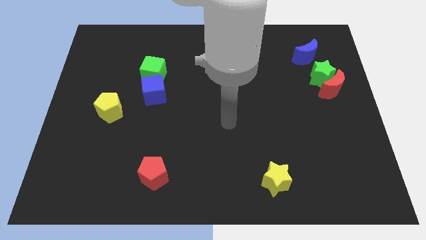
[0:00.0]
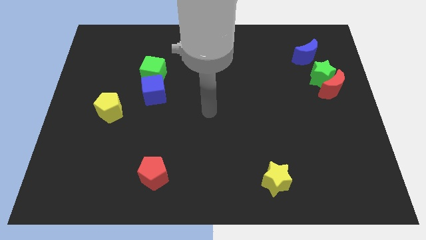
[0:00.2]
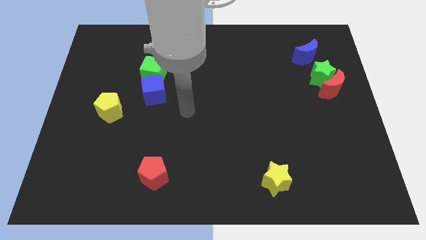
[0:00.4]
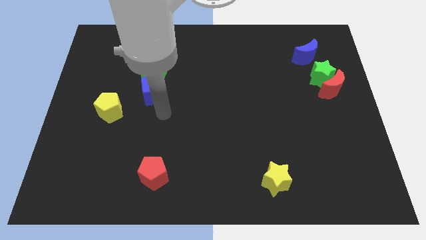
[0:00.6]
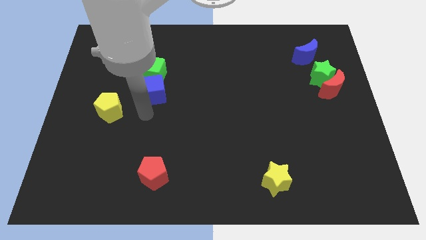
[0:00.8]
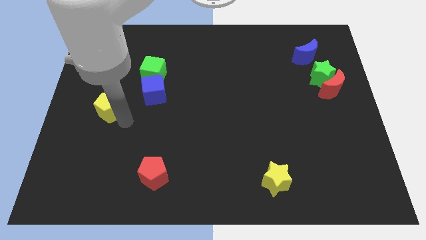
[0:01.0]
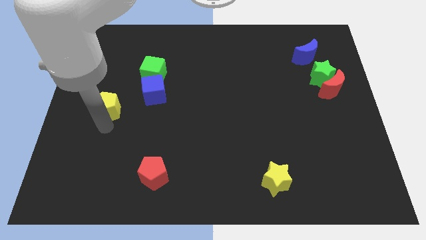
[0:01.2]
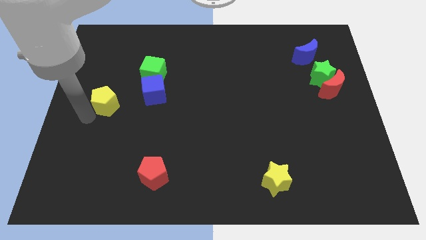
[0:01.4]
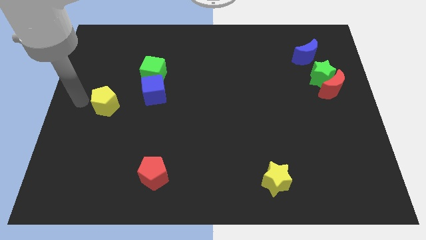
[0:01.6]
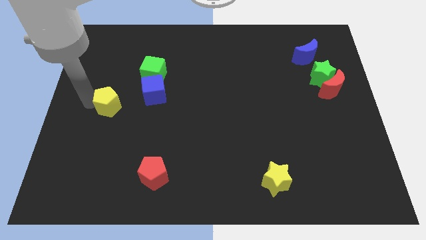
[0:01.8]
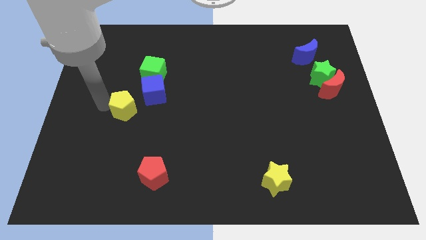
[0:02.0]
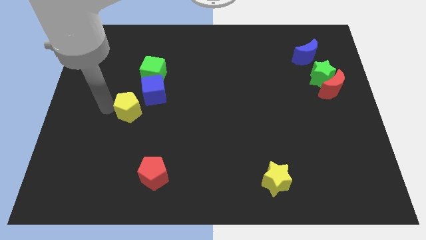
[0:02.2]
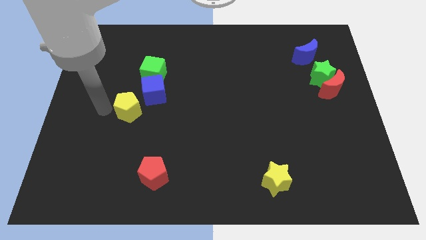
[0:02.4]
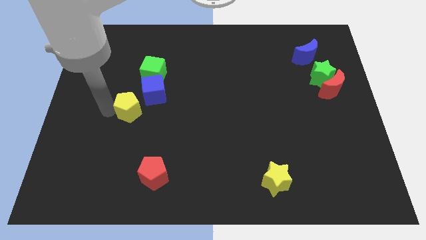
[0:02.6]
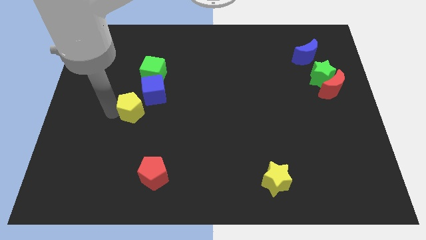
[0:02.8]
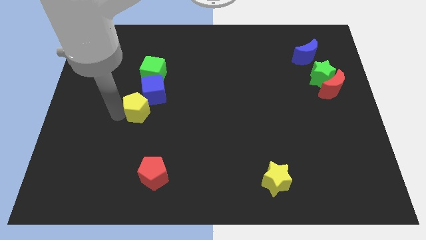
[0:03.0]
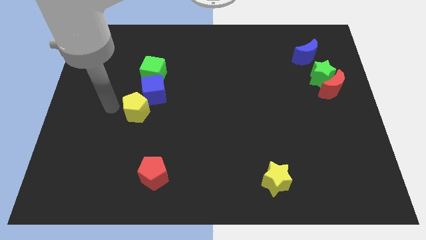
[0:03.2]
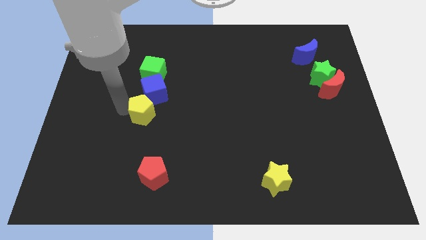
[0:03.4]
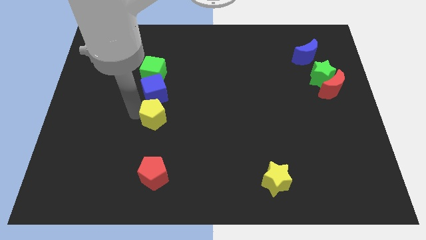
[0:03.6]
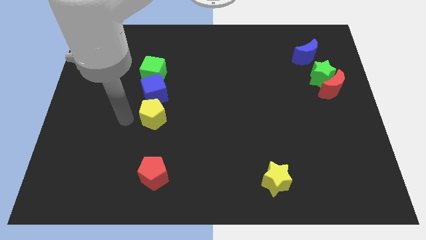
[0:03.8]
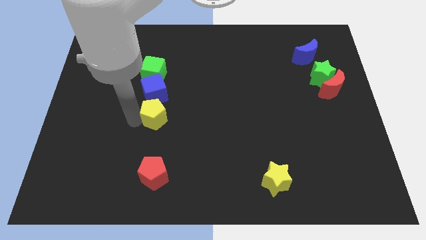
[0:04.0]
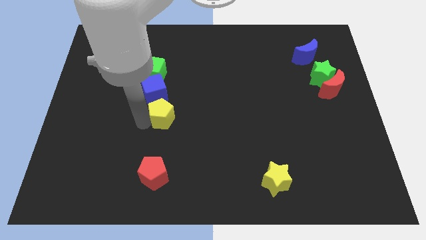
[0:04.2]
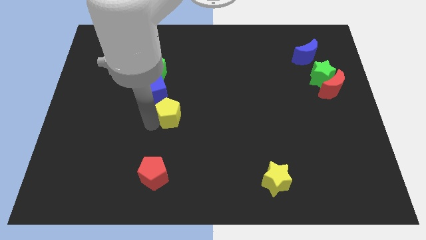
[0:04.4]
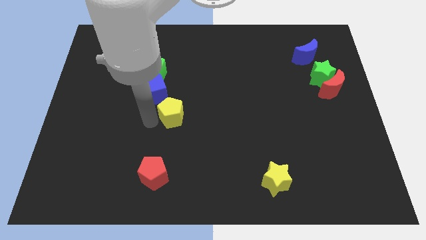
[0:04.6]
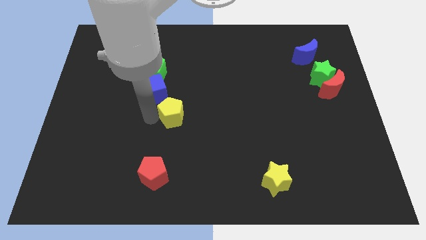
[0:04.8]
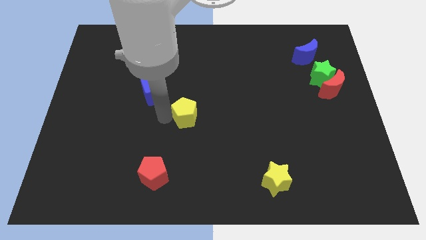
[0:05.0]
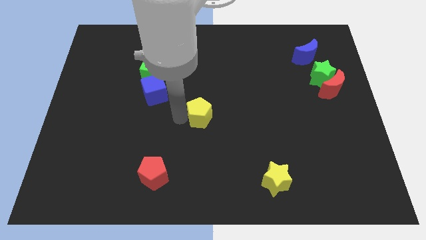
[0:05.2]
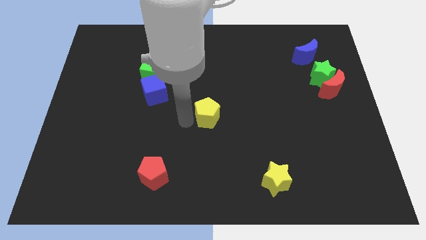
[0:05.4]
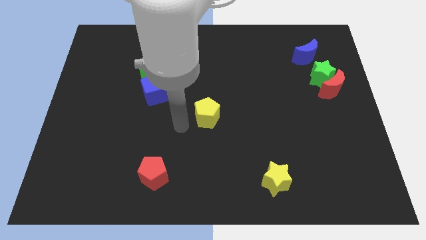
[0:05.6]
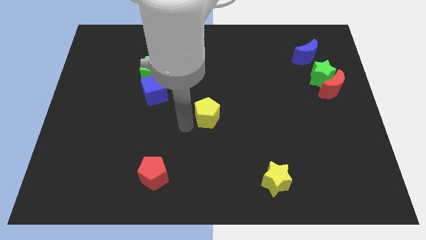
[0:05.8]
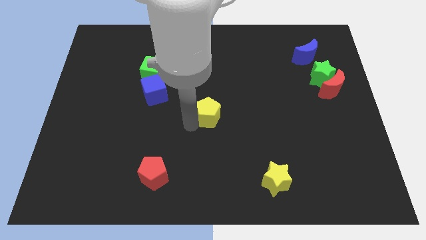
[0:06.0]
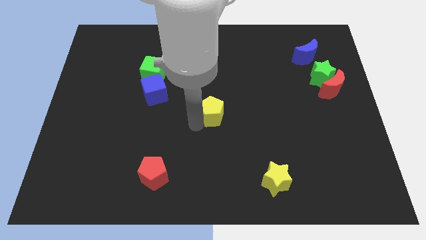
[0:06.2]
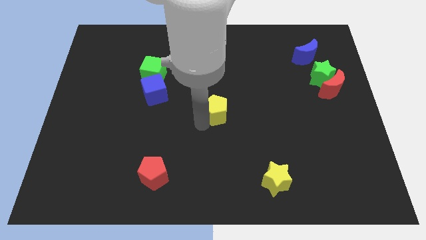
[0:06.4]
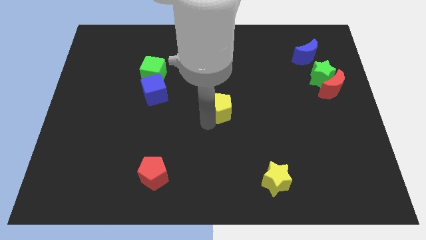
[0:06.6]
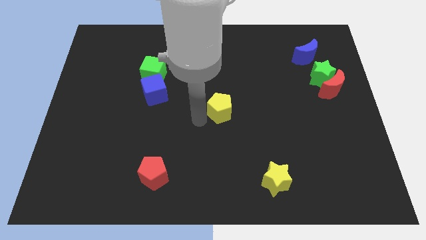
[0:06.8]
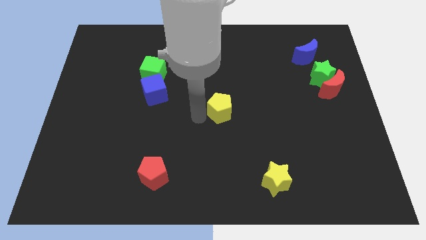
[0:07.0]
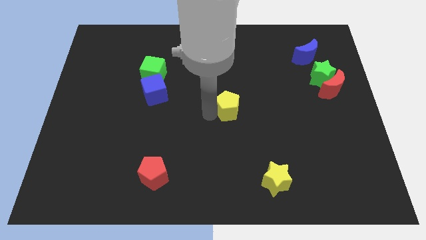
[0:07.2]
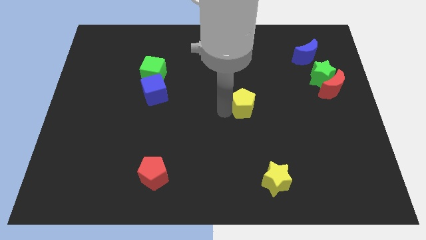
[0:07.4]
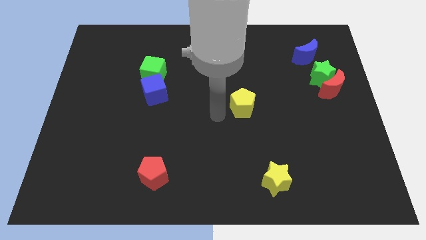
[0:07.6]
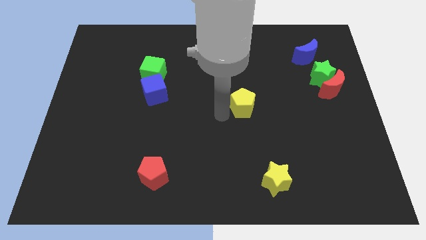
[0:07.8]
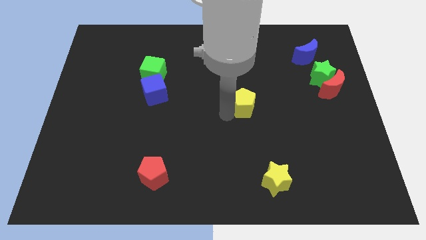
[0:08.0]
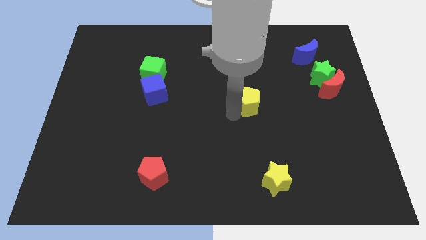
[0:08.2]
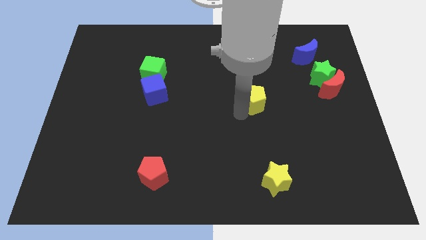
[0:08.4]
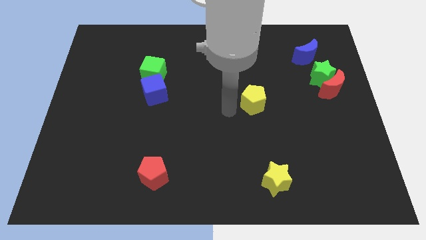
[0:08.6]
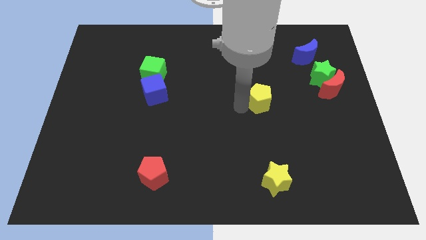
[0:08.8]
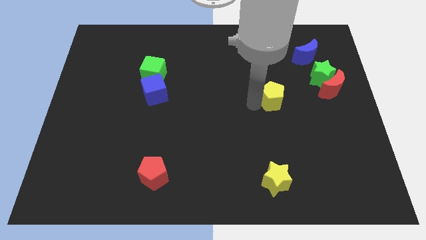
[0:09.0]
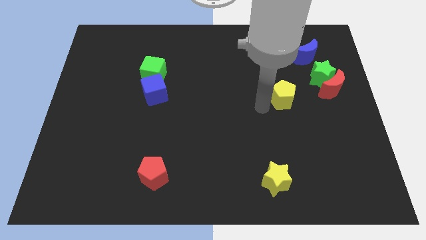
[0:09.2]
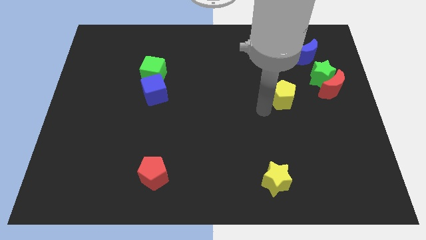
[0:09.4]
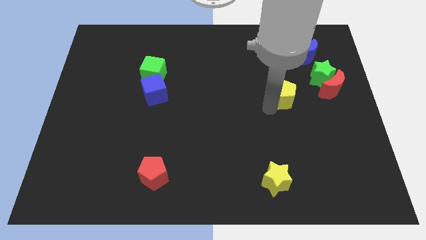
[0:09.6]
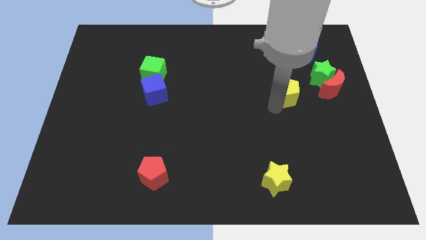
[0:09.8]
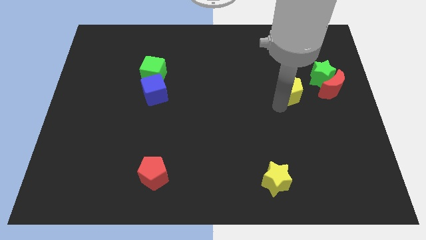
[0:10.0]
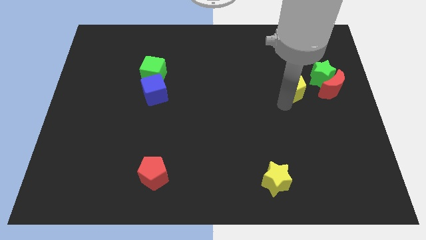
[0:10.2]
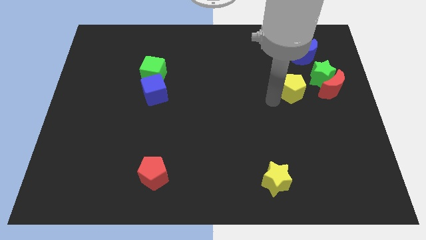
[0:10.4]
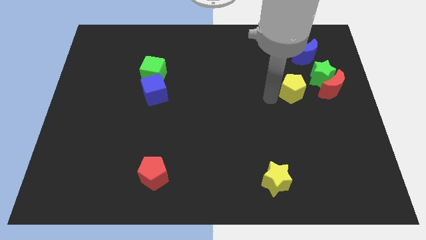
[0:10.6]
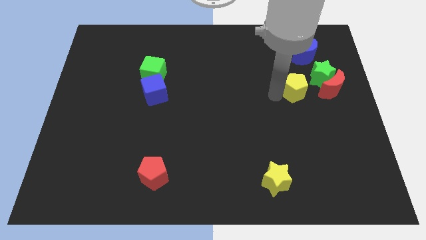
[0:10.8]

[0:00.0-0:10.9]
slide the yellow pentagon to the bottom side of the blue moon

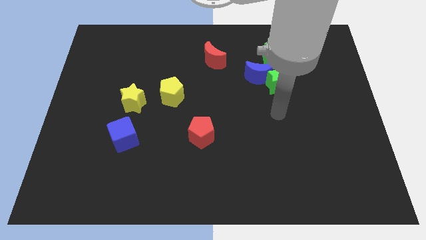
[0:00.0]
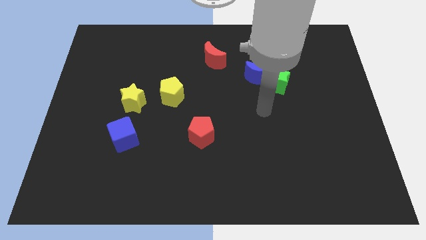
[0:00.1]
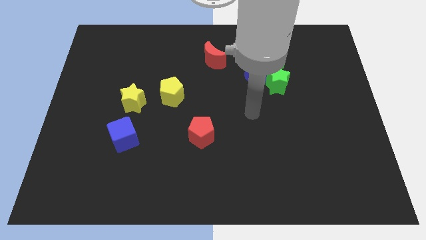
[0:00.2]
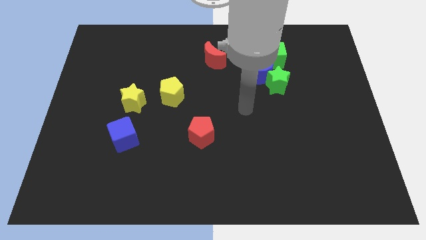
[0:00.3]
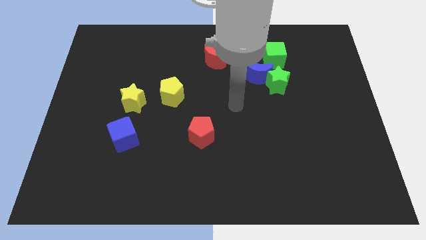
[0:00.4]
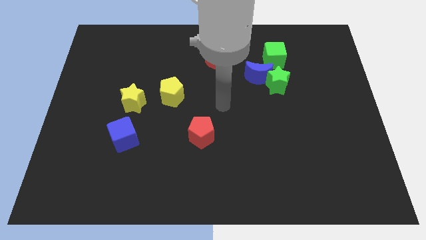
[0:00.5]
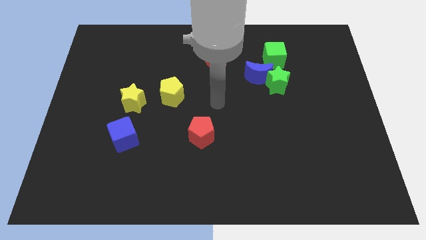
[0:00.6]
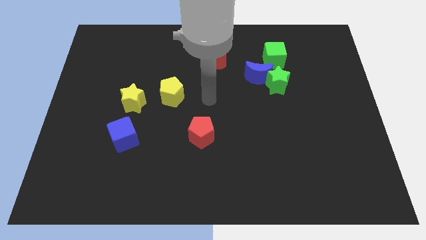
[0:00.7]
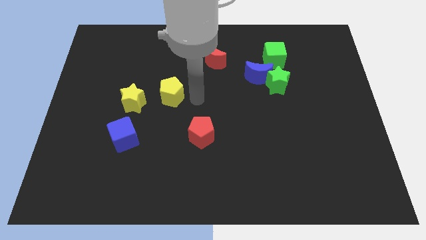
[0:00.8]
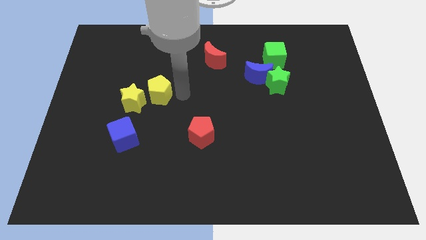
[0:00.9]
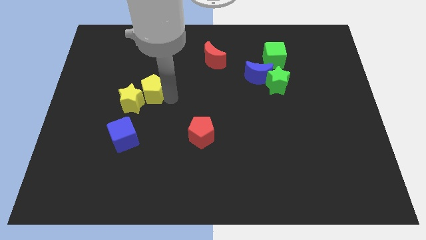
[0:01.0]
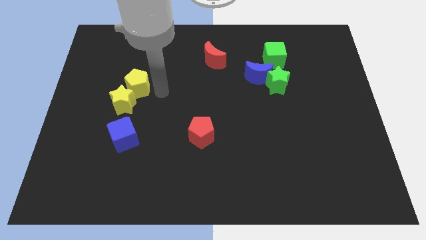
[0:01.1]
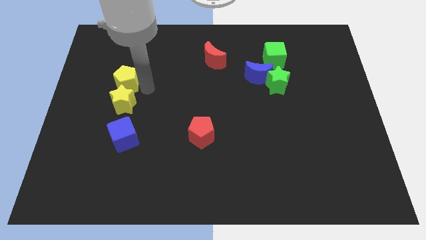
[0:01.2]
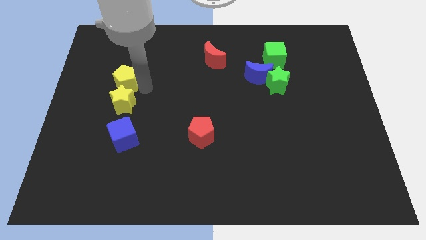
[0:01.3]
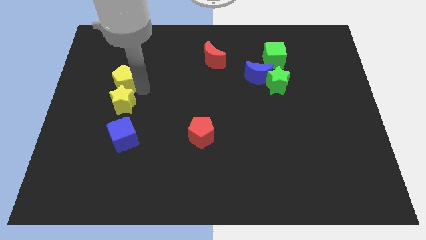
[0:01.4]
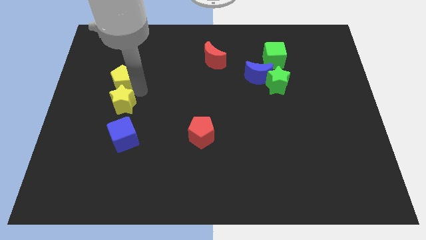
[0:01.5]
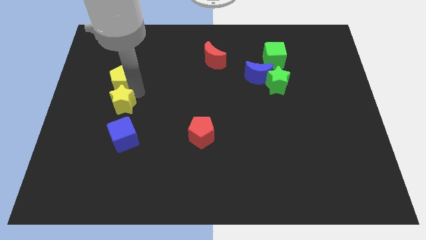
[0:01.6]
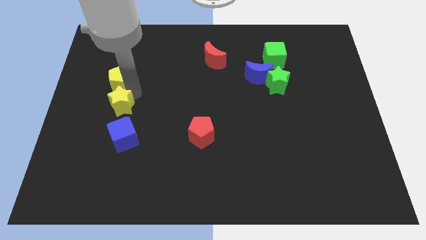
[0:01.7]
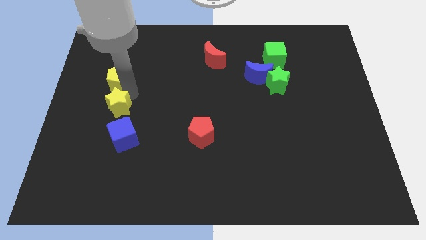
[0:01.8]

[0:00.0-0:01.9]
move the yellow star diagonally up and to the left of the blue cube
